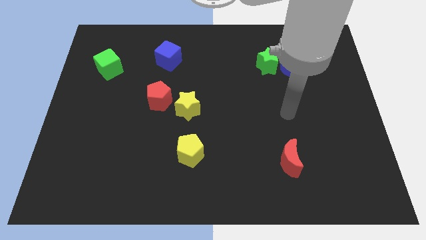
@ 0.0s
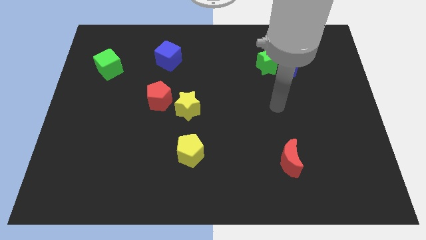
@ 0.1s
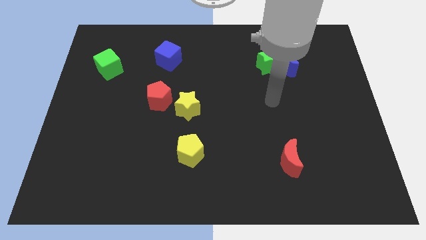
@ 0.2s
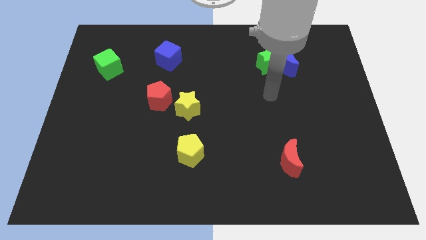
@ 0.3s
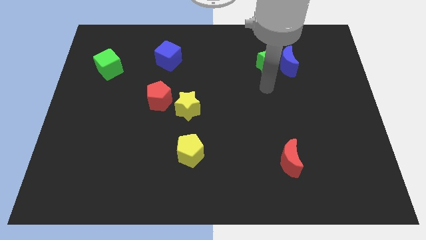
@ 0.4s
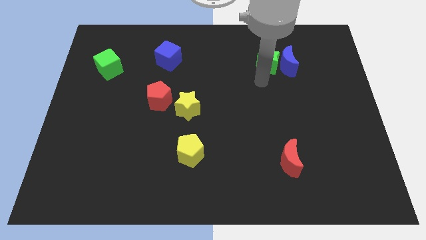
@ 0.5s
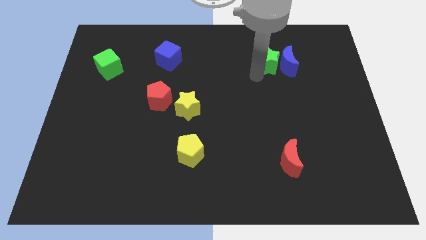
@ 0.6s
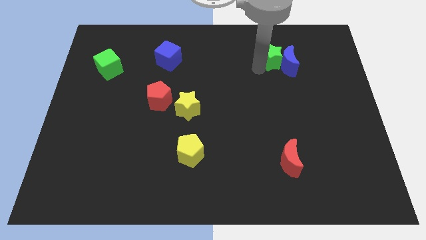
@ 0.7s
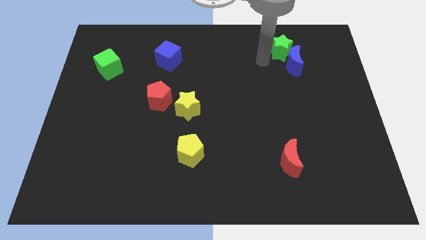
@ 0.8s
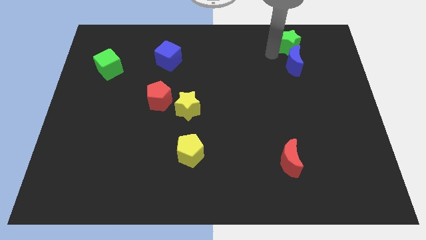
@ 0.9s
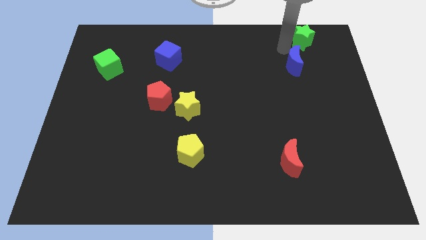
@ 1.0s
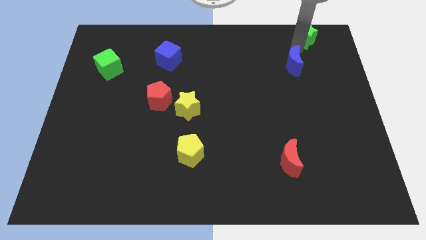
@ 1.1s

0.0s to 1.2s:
pull the blue moon apart from the green star

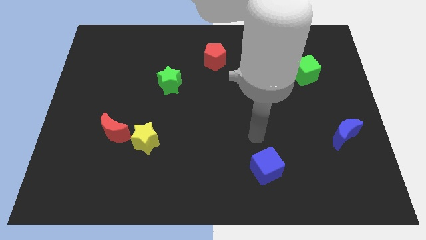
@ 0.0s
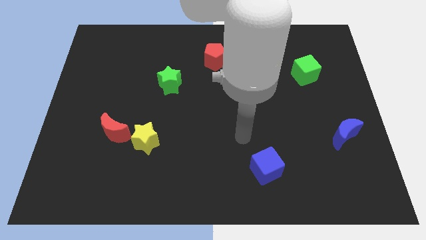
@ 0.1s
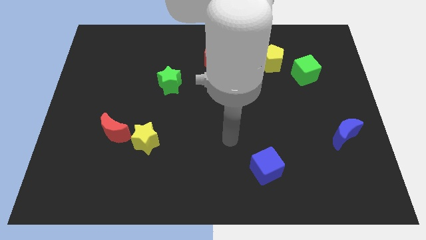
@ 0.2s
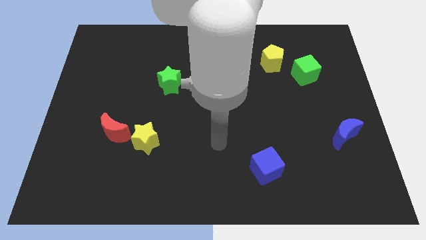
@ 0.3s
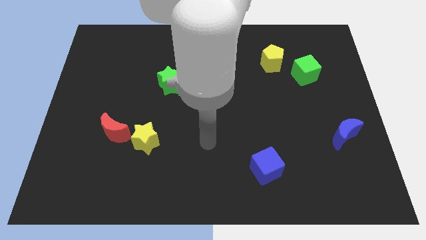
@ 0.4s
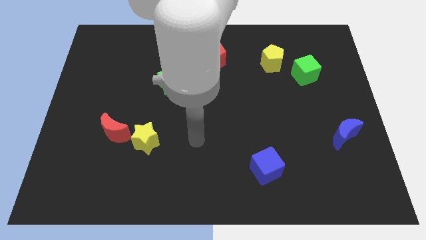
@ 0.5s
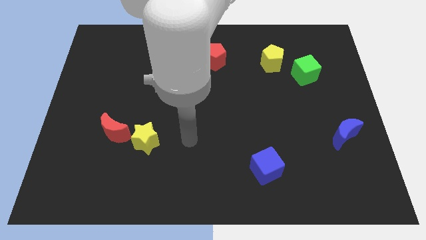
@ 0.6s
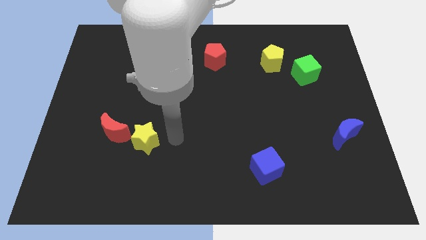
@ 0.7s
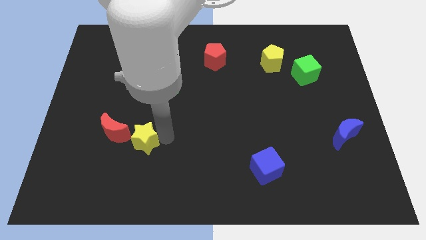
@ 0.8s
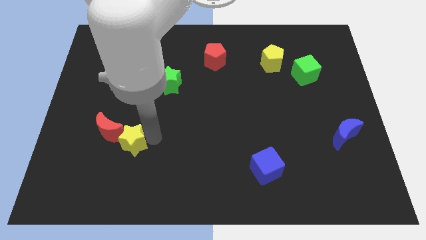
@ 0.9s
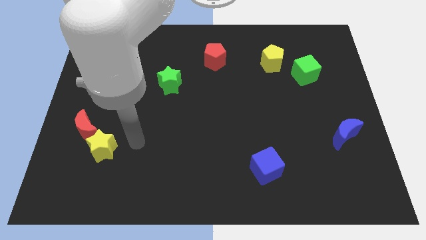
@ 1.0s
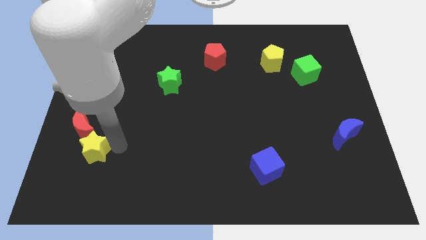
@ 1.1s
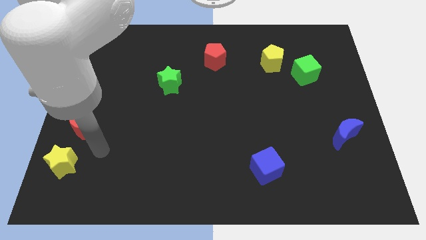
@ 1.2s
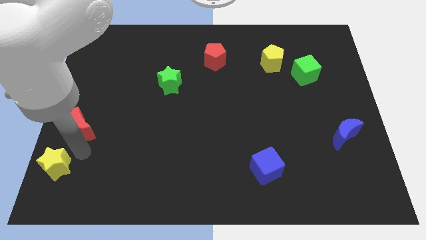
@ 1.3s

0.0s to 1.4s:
pull the red moon apart from the yellow star

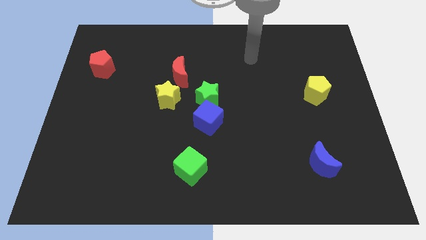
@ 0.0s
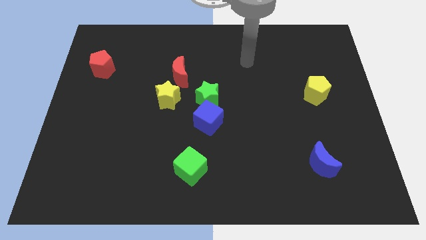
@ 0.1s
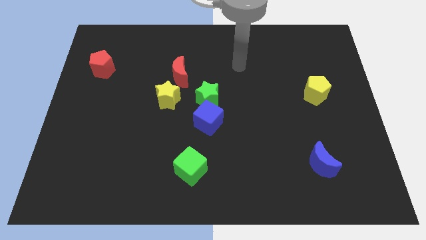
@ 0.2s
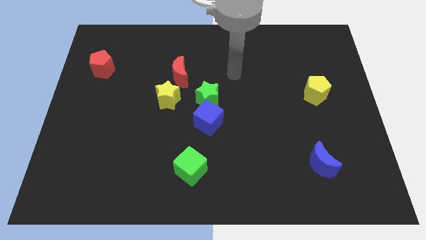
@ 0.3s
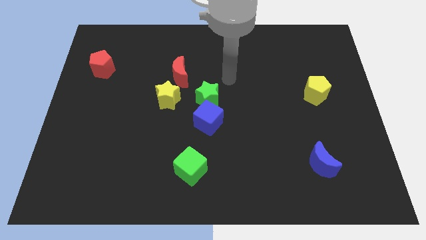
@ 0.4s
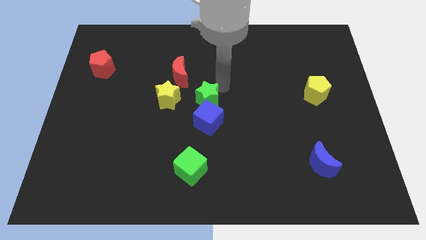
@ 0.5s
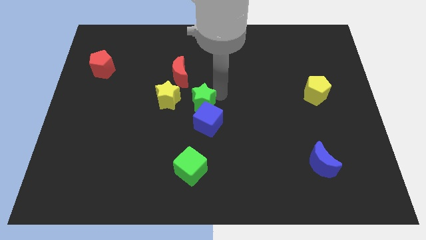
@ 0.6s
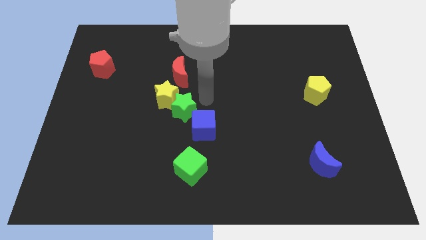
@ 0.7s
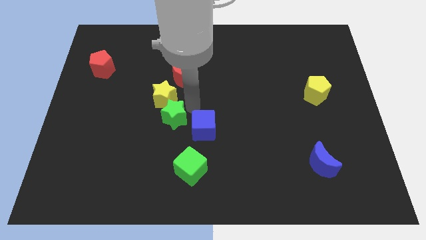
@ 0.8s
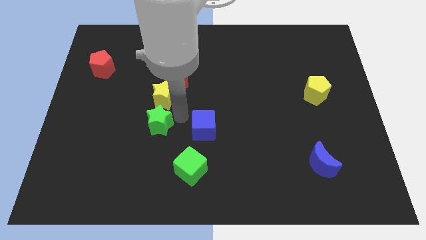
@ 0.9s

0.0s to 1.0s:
pull the blue cube apart from the green star

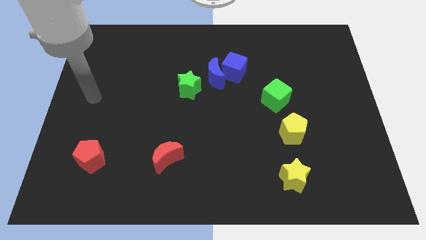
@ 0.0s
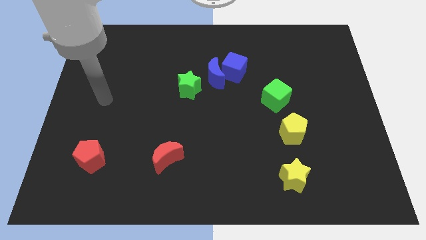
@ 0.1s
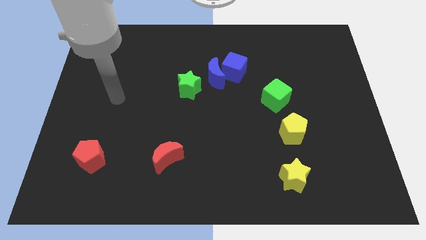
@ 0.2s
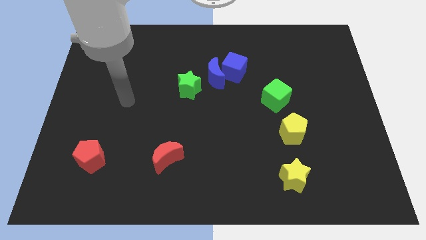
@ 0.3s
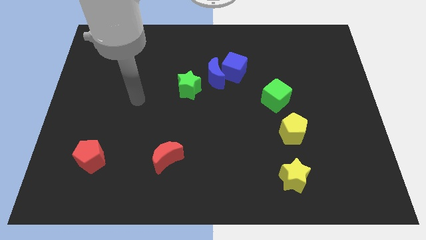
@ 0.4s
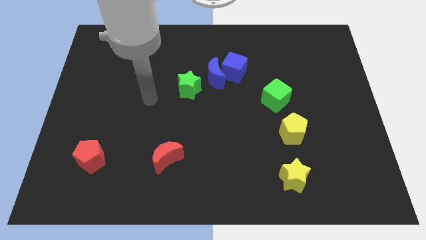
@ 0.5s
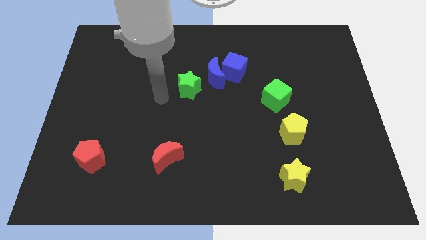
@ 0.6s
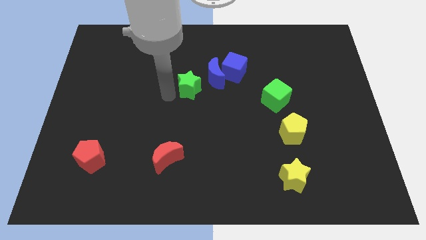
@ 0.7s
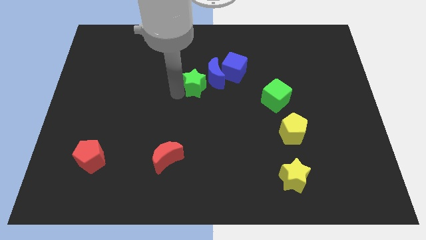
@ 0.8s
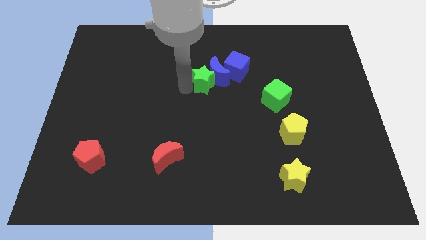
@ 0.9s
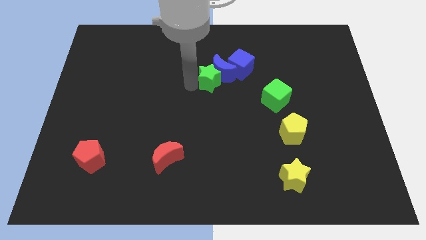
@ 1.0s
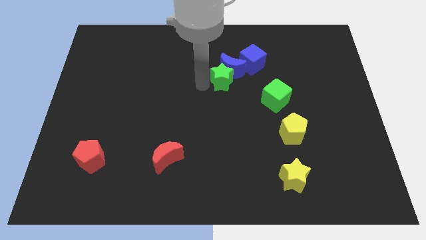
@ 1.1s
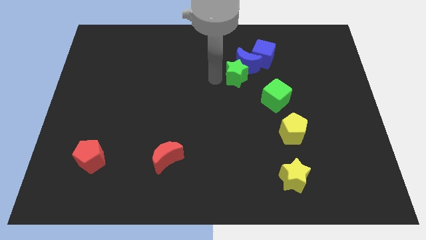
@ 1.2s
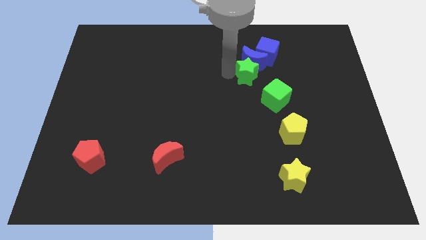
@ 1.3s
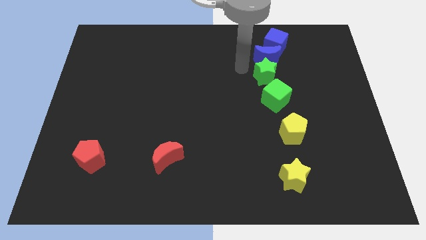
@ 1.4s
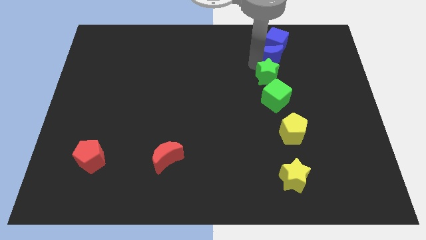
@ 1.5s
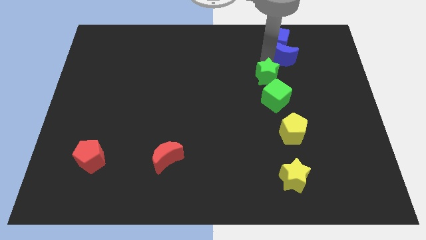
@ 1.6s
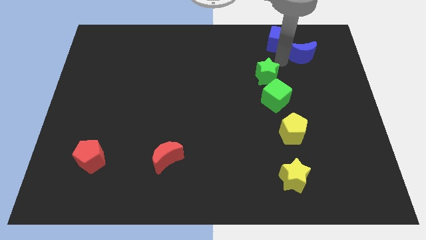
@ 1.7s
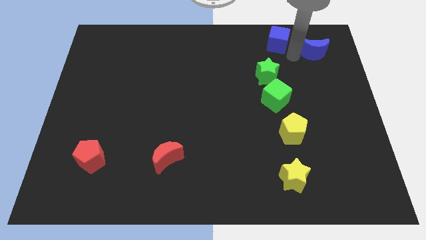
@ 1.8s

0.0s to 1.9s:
move the blue cube away from the blue moon

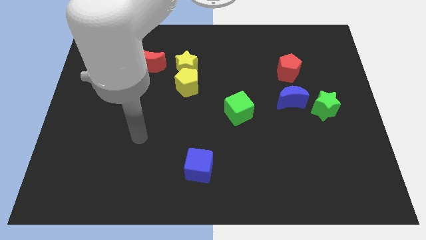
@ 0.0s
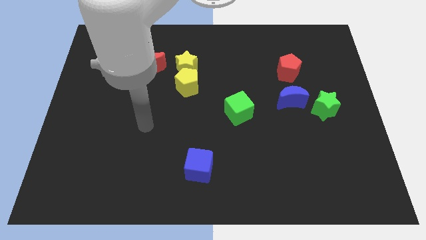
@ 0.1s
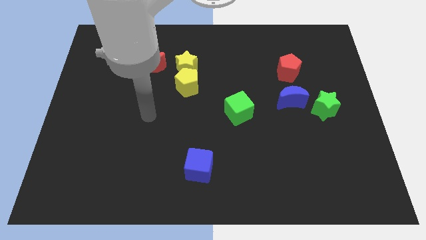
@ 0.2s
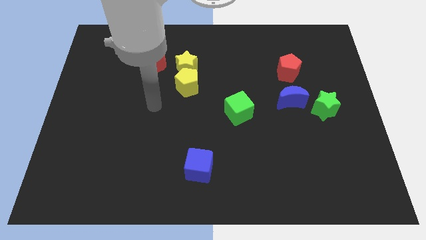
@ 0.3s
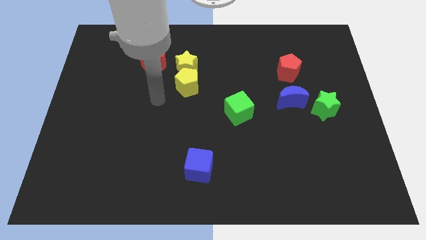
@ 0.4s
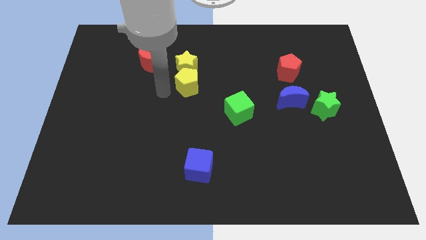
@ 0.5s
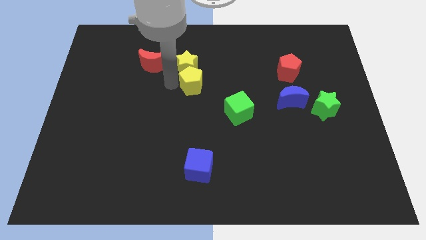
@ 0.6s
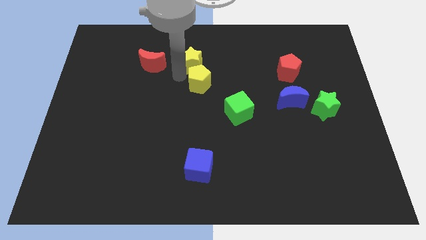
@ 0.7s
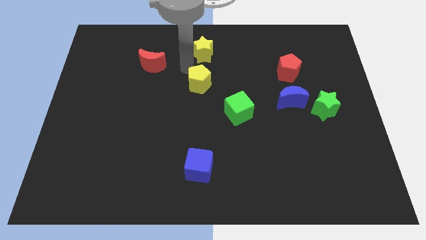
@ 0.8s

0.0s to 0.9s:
separate the yellow pentagon from the yellow star

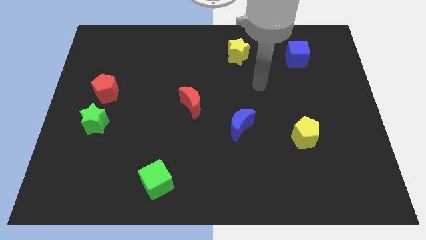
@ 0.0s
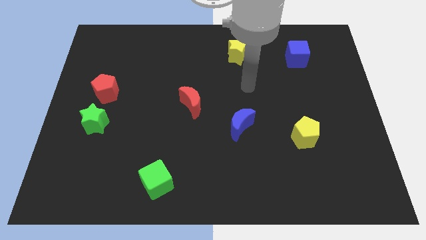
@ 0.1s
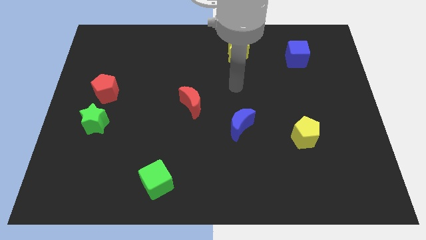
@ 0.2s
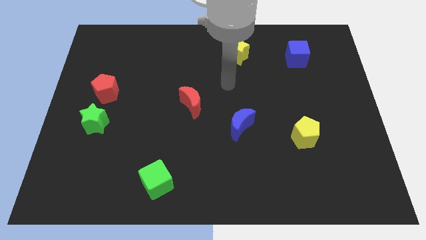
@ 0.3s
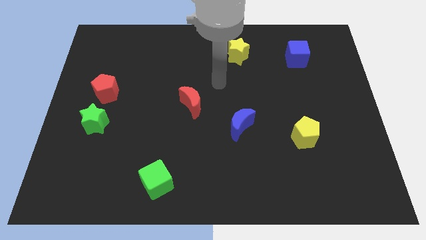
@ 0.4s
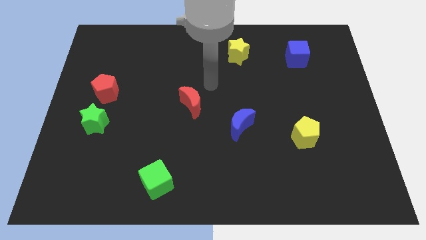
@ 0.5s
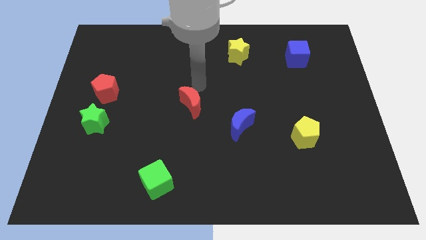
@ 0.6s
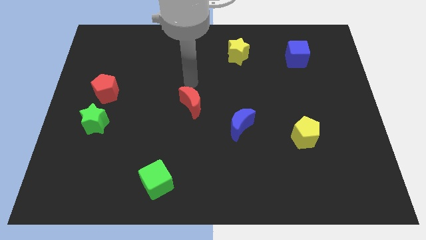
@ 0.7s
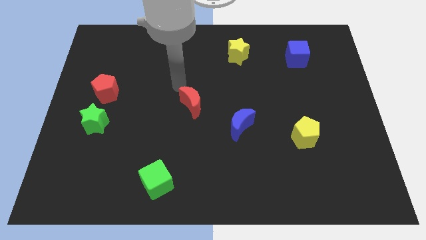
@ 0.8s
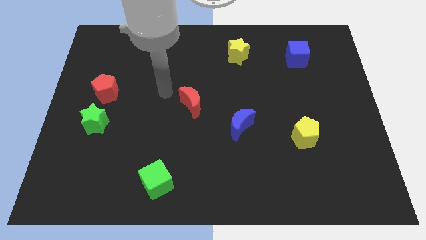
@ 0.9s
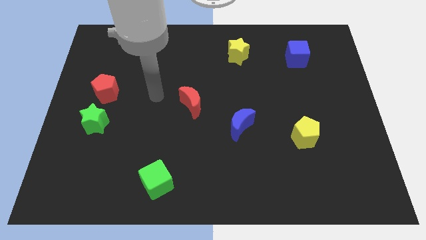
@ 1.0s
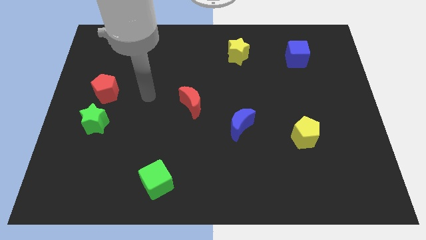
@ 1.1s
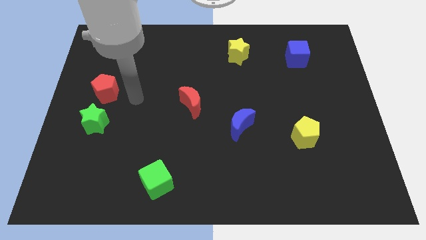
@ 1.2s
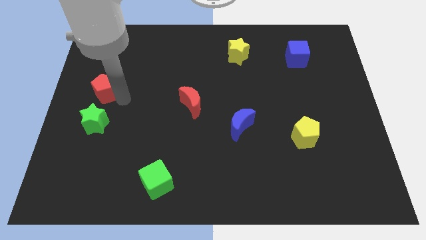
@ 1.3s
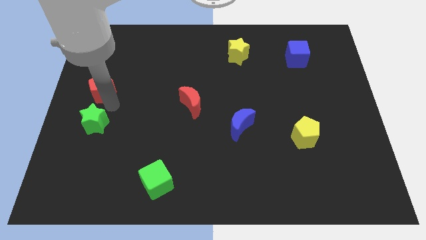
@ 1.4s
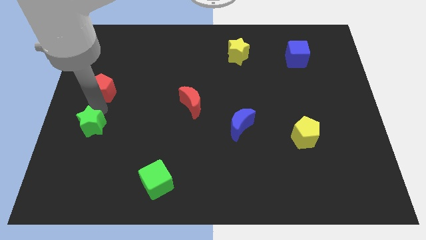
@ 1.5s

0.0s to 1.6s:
pull the red pentagon apart from the green star

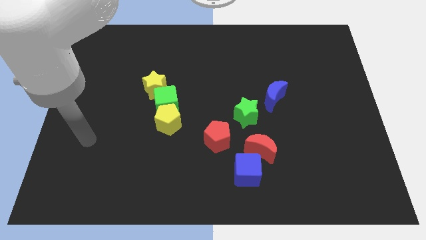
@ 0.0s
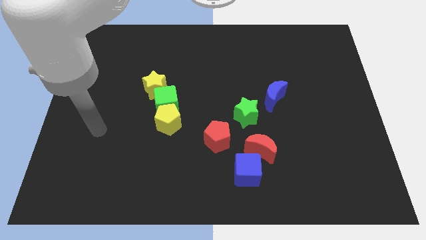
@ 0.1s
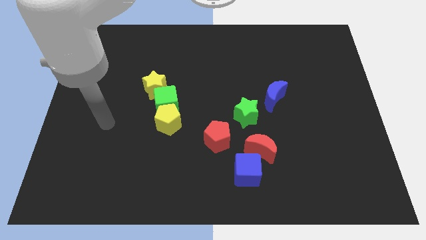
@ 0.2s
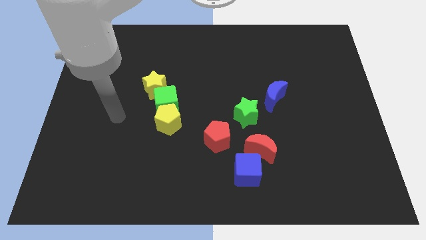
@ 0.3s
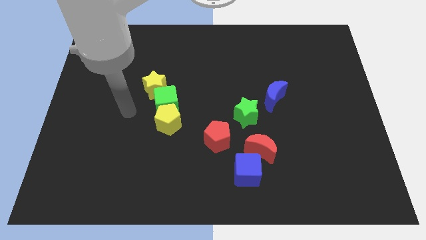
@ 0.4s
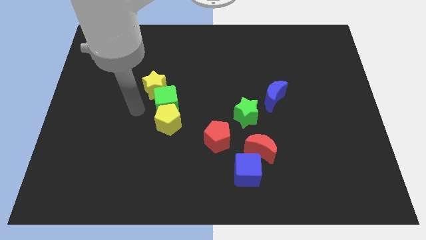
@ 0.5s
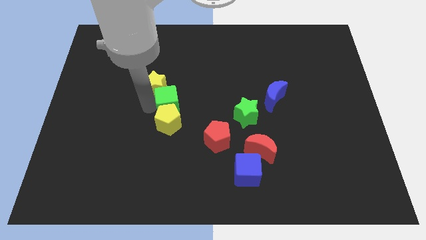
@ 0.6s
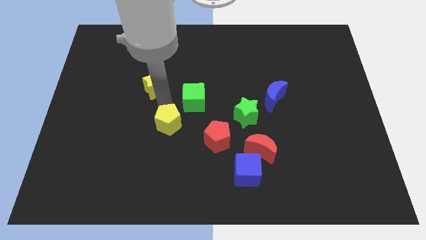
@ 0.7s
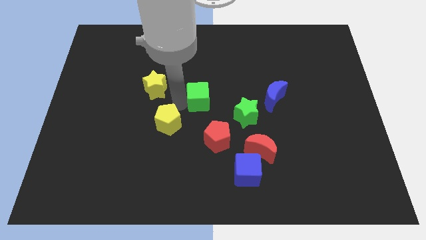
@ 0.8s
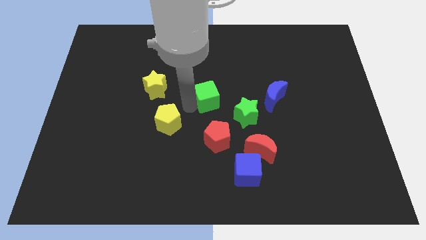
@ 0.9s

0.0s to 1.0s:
separate the yellow pentagon from the green cube

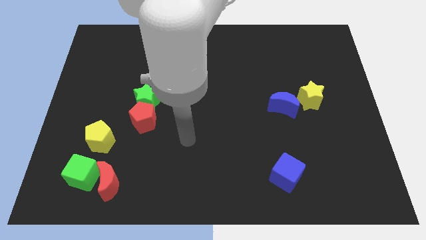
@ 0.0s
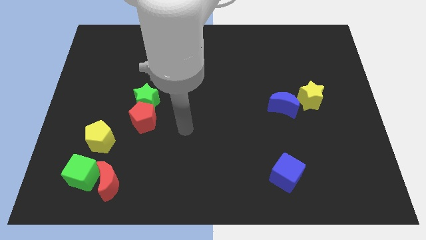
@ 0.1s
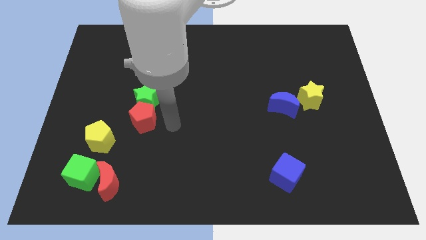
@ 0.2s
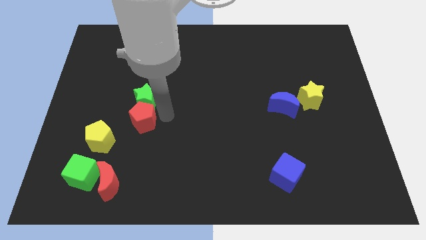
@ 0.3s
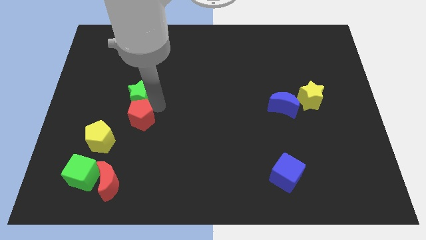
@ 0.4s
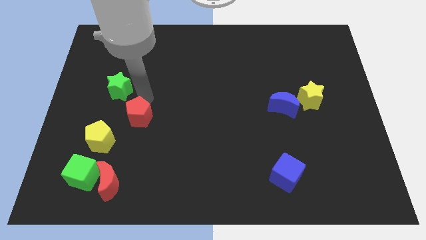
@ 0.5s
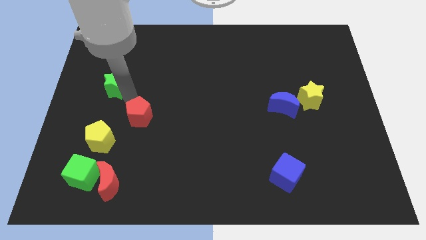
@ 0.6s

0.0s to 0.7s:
separate the red pentagon from the green star
